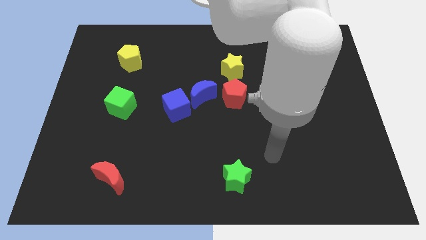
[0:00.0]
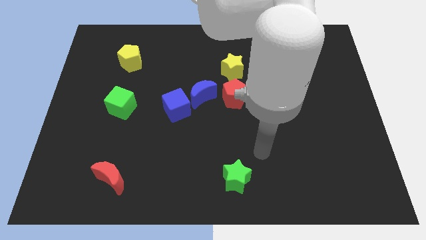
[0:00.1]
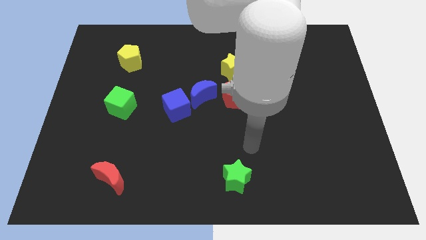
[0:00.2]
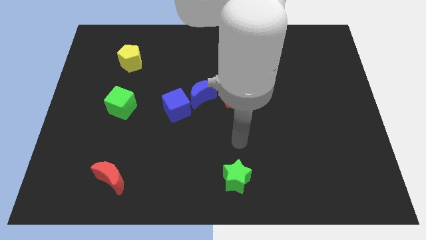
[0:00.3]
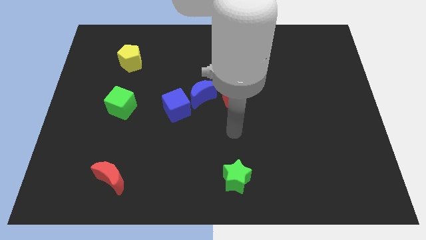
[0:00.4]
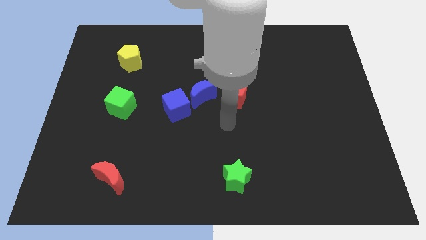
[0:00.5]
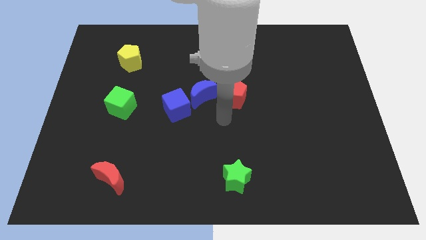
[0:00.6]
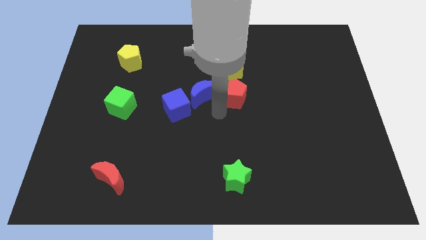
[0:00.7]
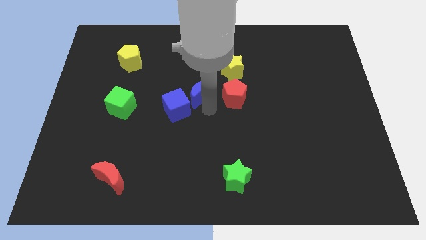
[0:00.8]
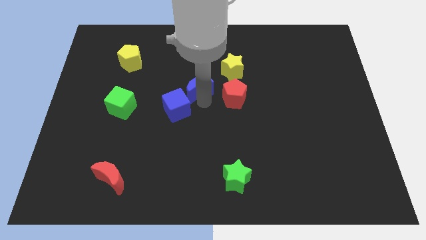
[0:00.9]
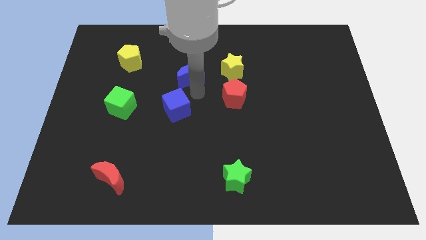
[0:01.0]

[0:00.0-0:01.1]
separate the blue cube from the blue moon

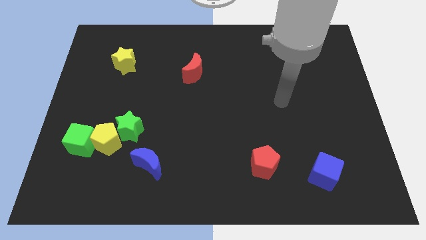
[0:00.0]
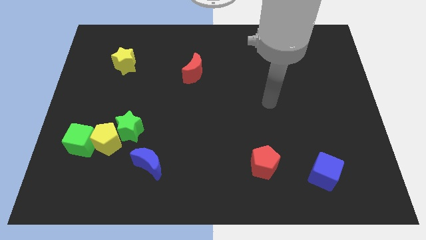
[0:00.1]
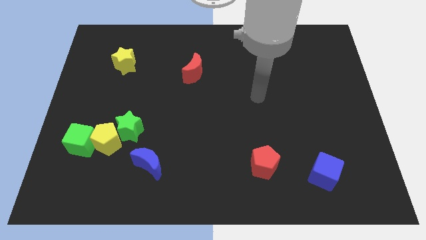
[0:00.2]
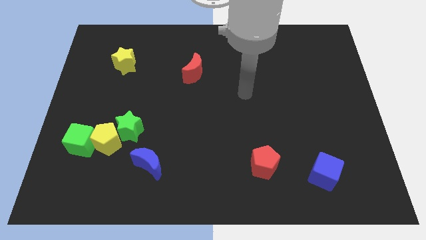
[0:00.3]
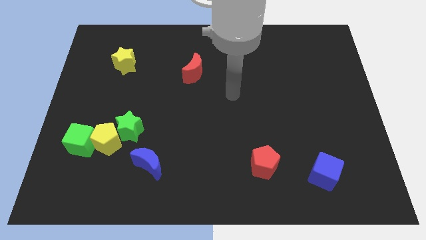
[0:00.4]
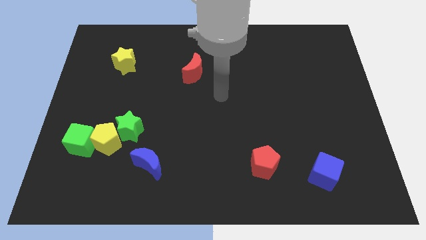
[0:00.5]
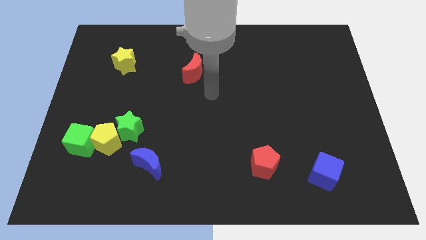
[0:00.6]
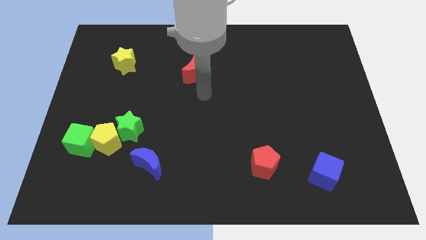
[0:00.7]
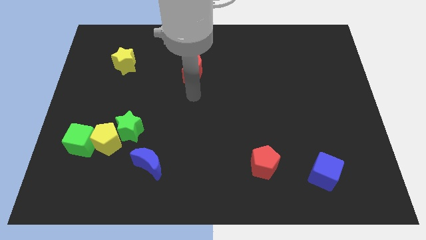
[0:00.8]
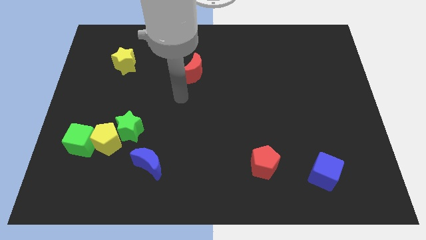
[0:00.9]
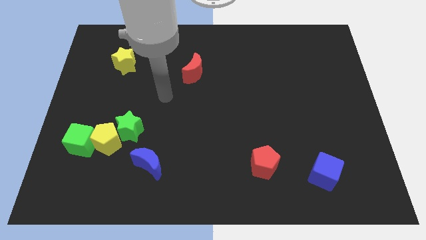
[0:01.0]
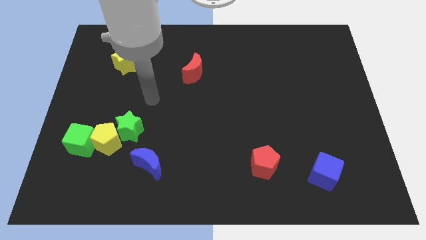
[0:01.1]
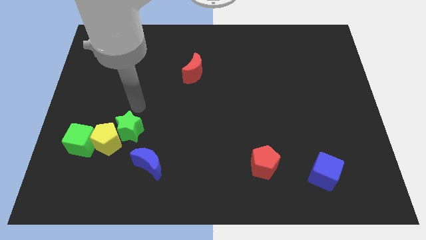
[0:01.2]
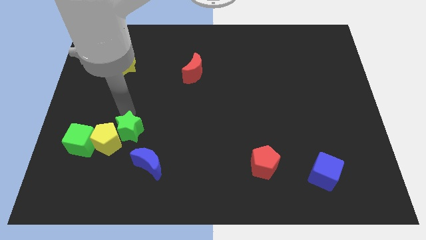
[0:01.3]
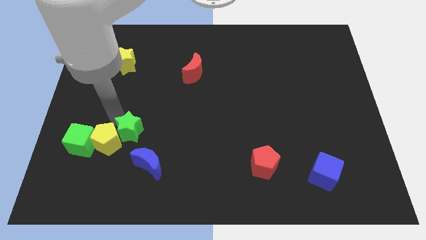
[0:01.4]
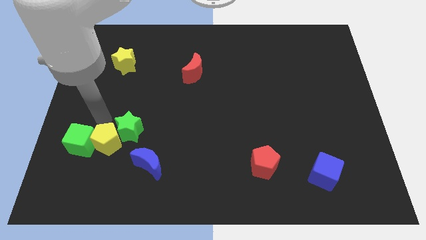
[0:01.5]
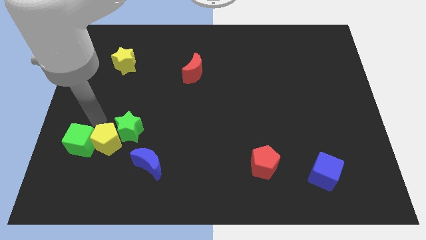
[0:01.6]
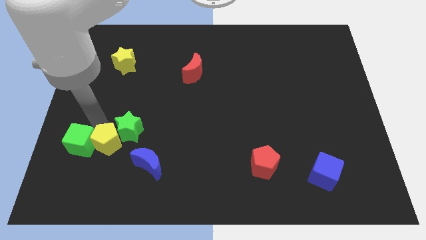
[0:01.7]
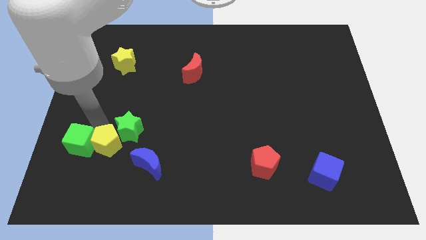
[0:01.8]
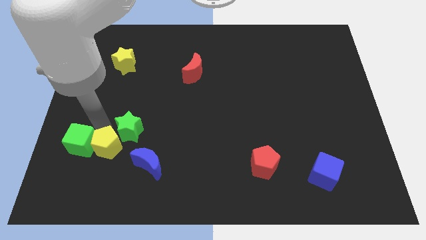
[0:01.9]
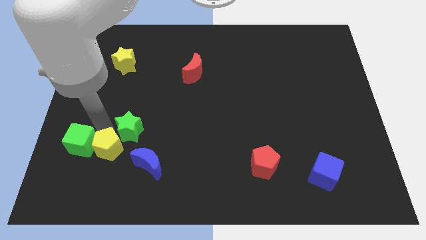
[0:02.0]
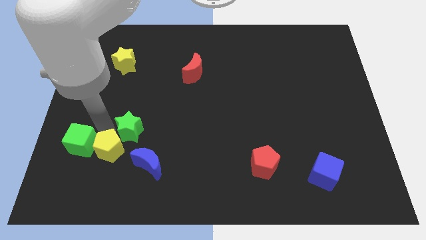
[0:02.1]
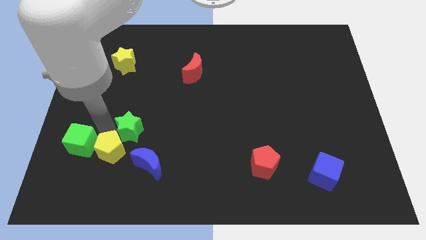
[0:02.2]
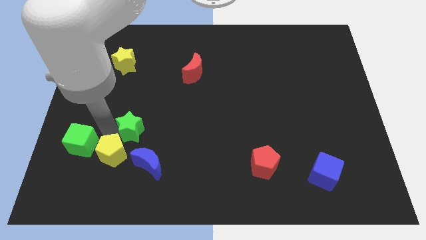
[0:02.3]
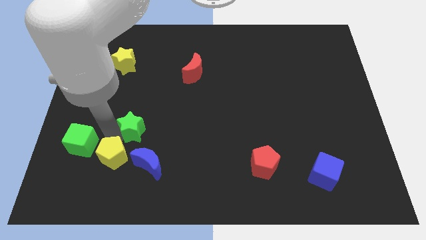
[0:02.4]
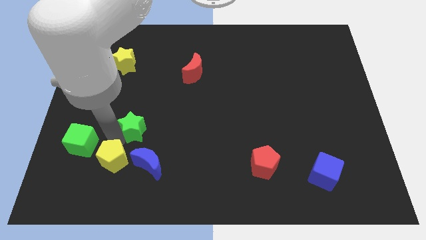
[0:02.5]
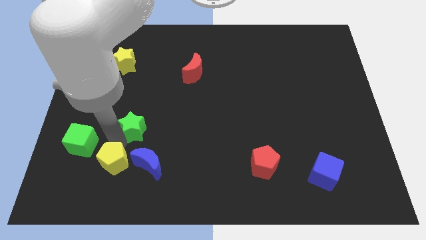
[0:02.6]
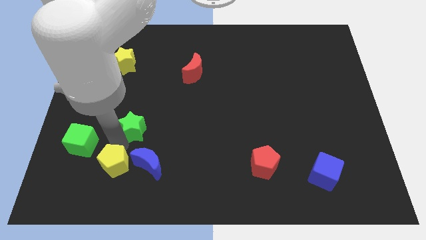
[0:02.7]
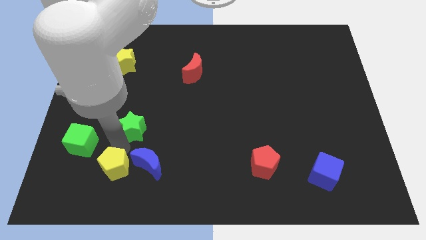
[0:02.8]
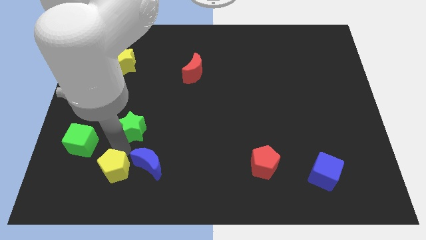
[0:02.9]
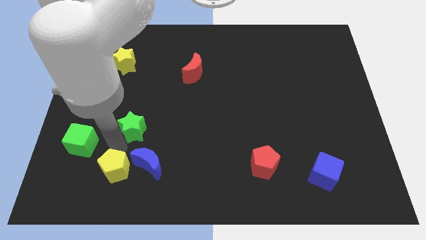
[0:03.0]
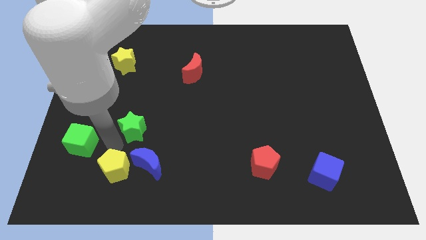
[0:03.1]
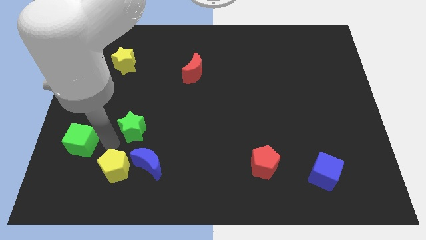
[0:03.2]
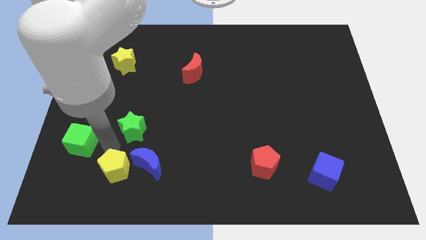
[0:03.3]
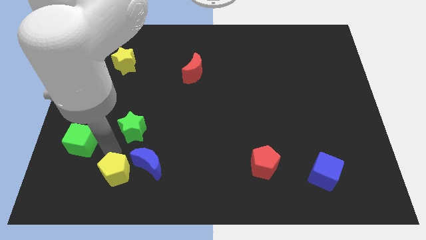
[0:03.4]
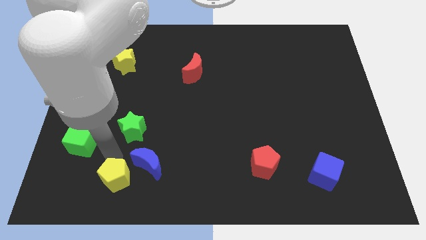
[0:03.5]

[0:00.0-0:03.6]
move the yellow pentagon away from the green star and green cube

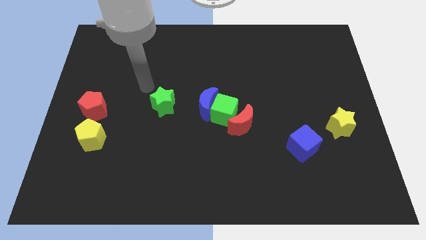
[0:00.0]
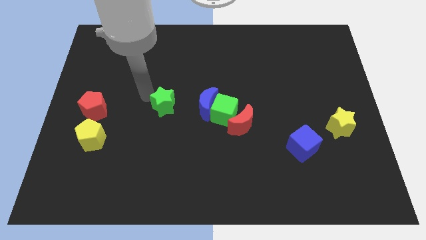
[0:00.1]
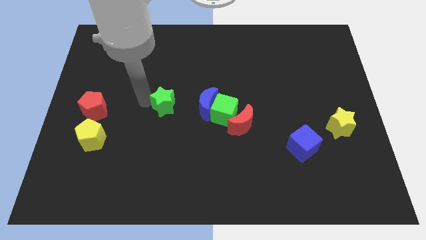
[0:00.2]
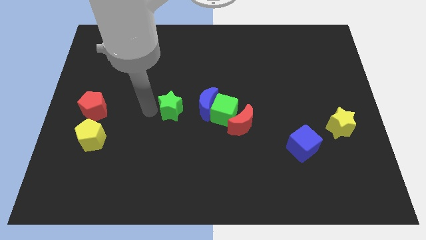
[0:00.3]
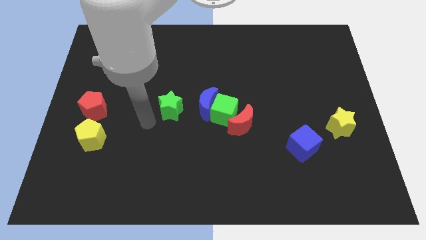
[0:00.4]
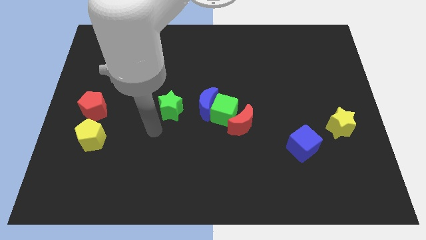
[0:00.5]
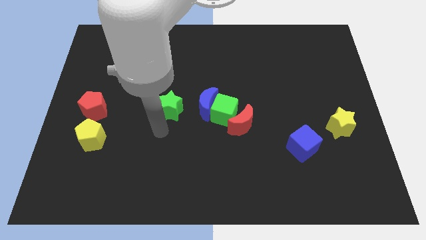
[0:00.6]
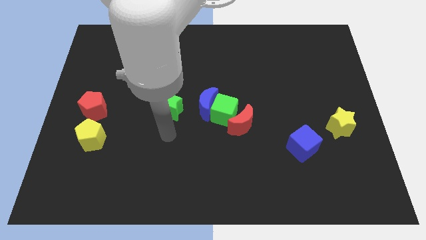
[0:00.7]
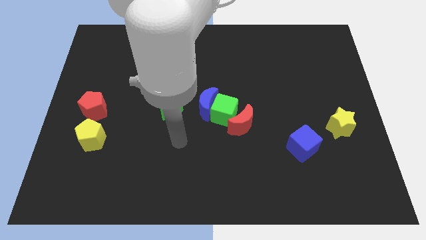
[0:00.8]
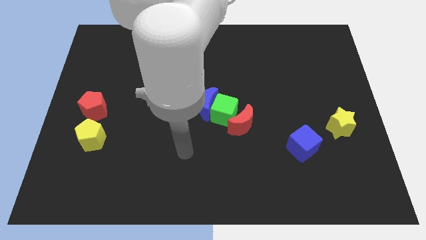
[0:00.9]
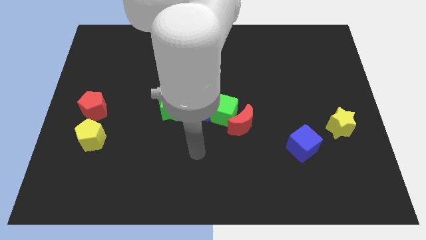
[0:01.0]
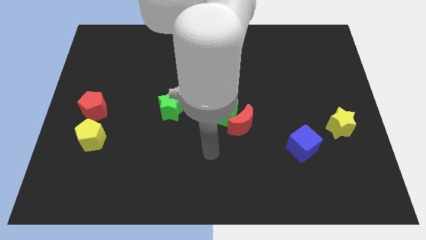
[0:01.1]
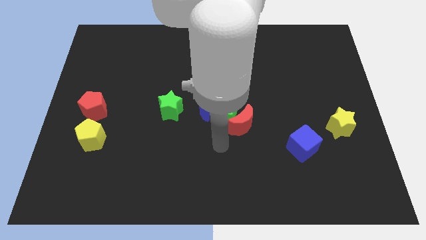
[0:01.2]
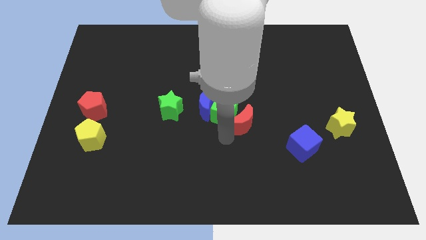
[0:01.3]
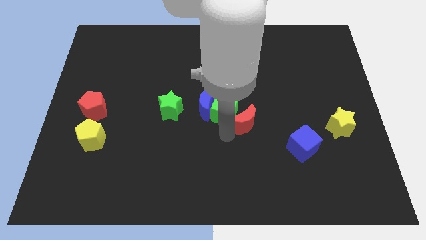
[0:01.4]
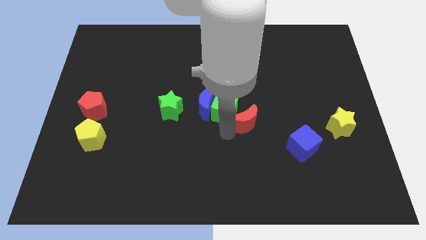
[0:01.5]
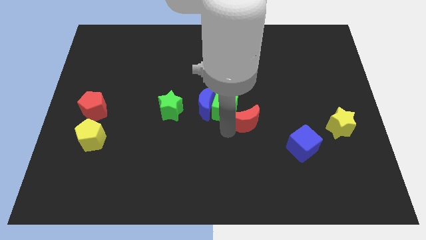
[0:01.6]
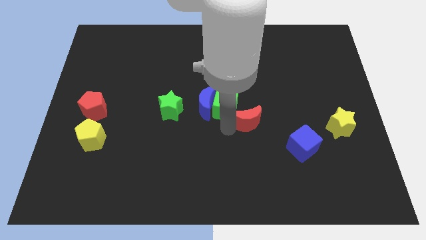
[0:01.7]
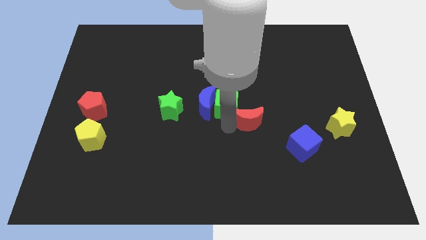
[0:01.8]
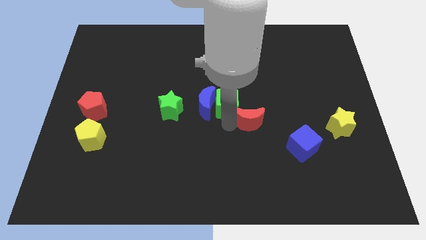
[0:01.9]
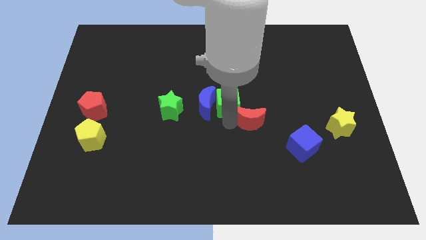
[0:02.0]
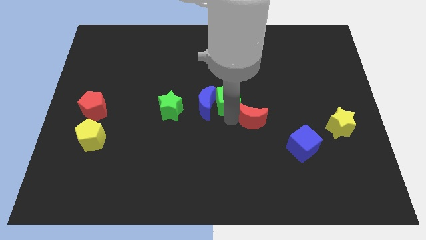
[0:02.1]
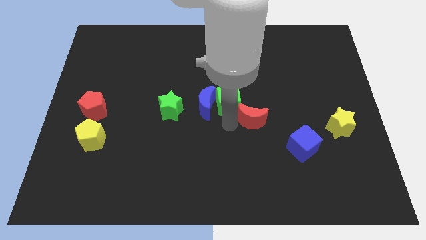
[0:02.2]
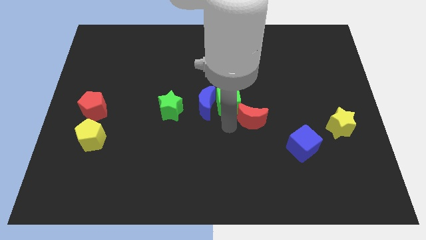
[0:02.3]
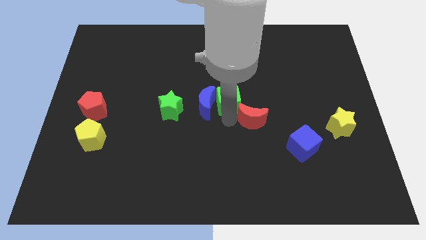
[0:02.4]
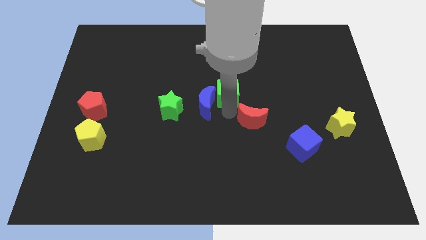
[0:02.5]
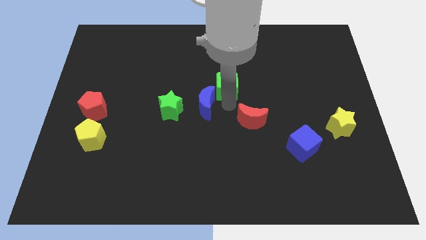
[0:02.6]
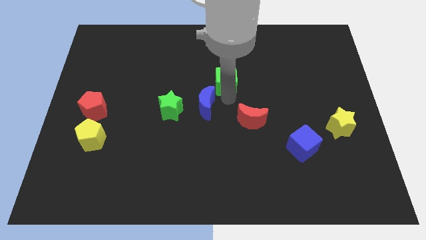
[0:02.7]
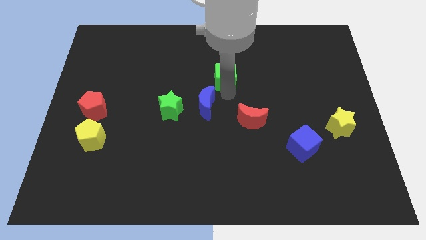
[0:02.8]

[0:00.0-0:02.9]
pull the green cube apart from the blue moon and red moon

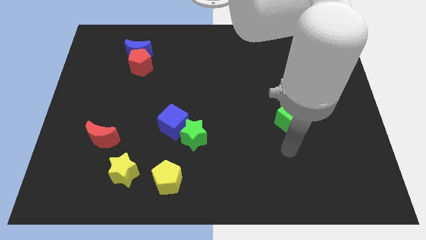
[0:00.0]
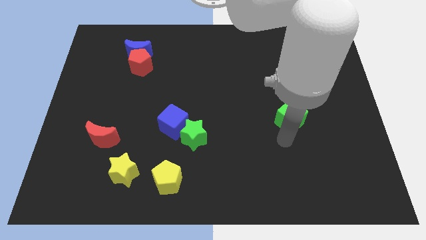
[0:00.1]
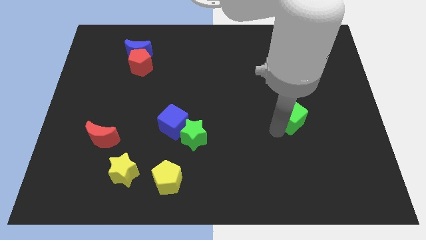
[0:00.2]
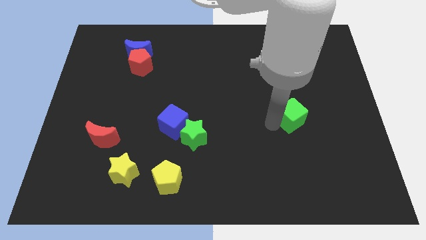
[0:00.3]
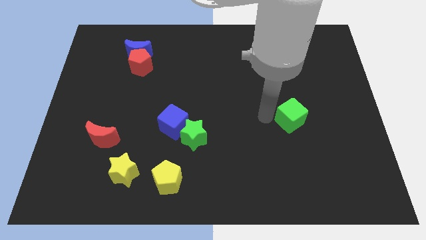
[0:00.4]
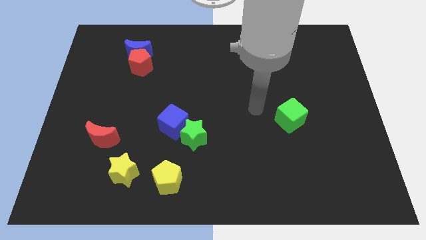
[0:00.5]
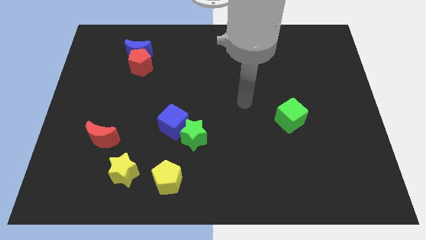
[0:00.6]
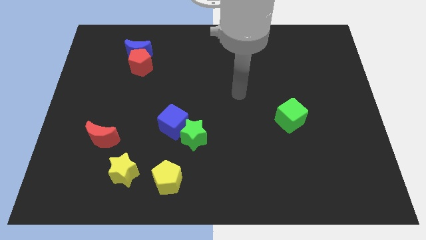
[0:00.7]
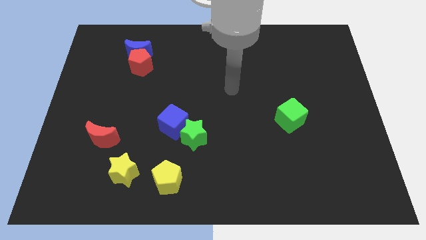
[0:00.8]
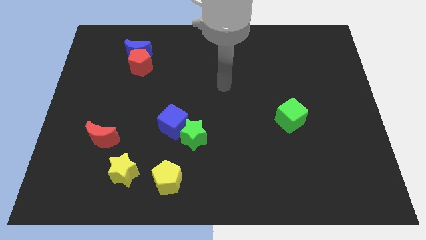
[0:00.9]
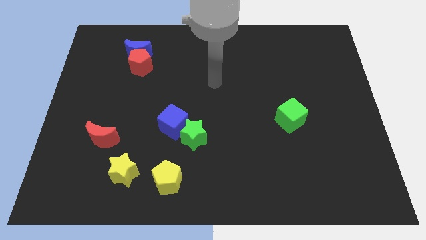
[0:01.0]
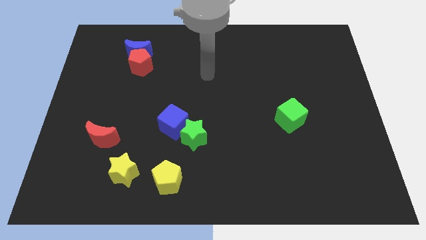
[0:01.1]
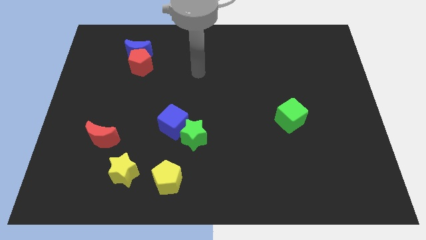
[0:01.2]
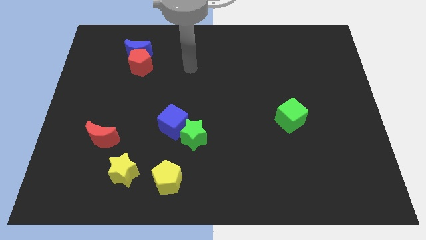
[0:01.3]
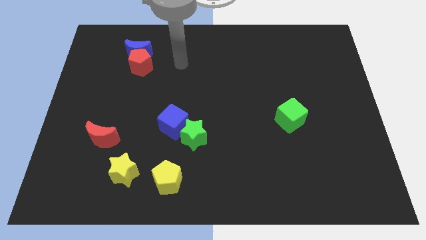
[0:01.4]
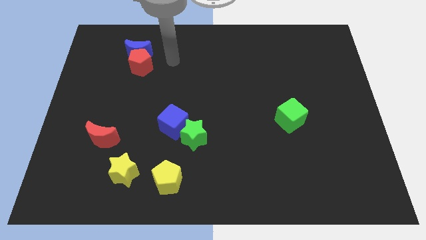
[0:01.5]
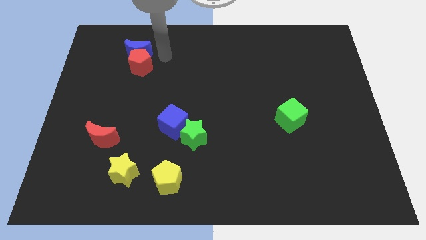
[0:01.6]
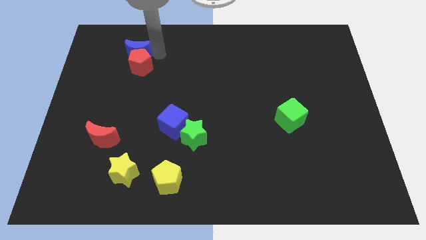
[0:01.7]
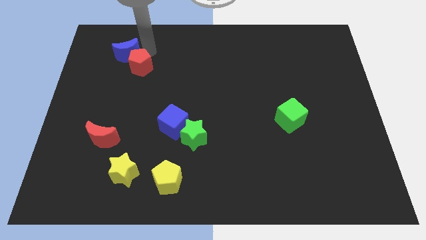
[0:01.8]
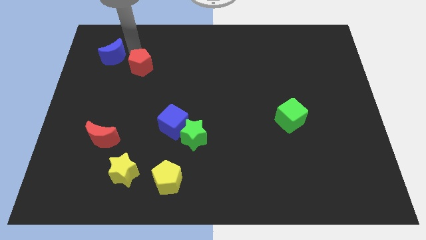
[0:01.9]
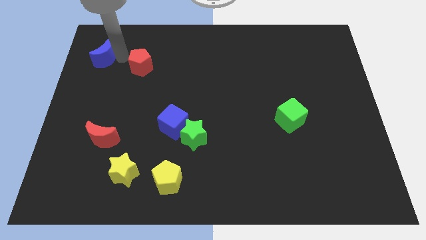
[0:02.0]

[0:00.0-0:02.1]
move the red pentagon away from the blue moon
